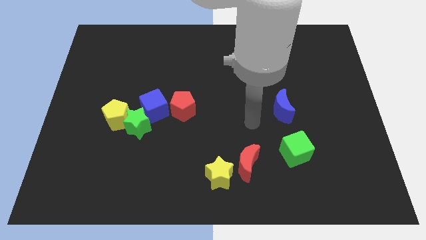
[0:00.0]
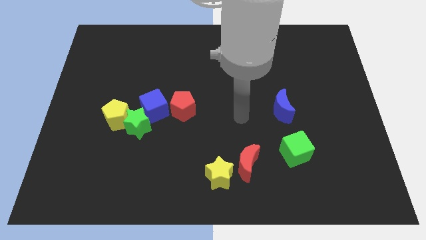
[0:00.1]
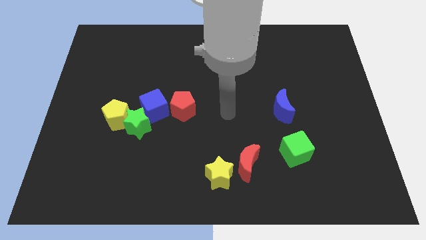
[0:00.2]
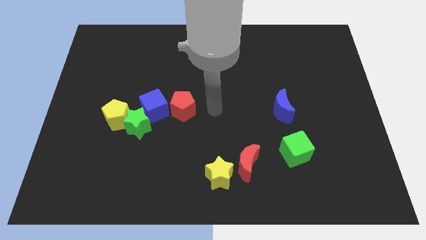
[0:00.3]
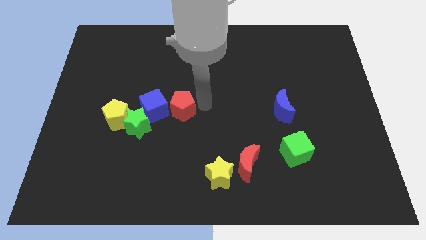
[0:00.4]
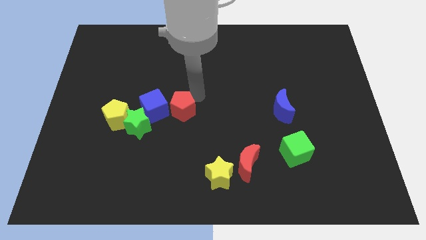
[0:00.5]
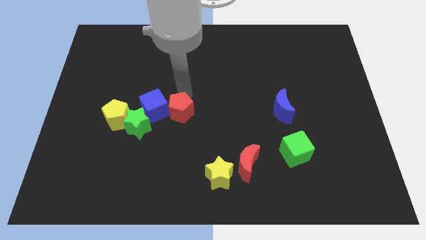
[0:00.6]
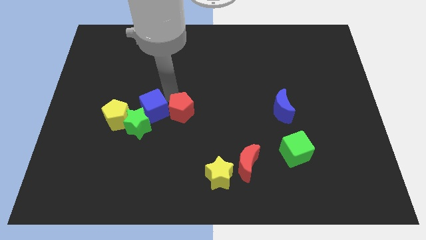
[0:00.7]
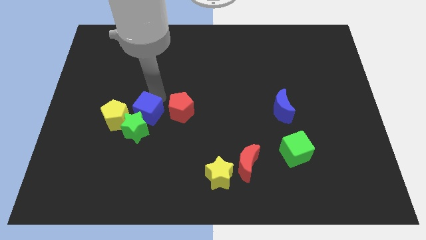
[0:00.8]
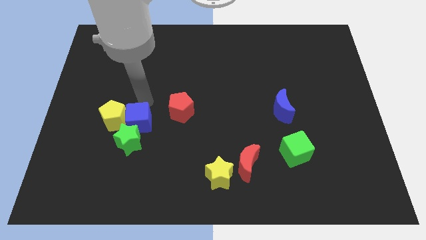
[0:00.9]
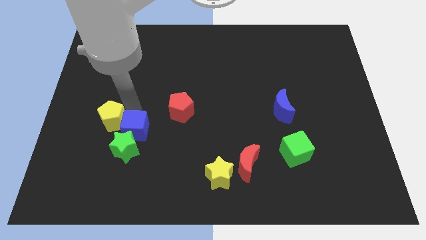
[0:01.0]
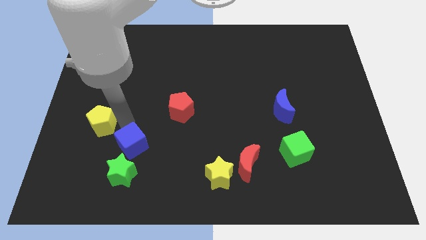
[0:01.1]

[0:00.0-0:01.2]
pull the green star apart from the yellow pentagon and blue cube

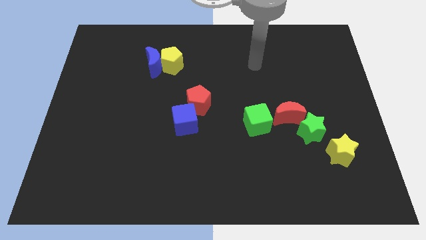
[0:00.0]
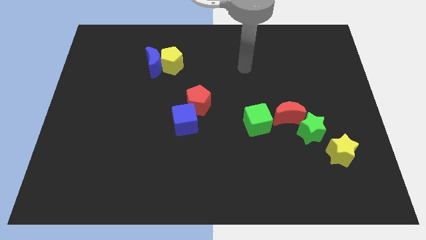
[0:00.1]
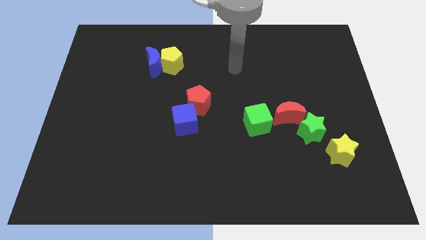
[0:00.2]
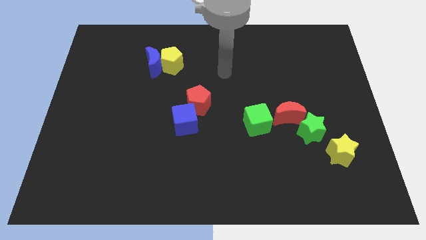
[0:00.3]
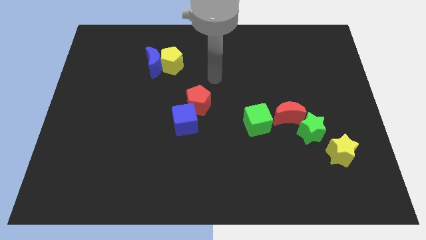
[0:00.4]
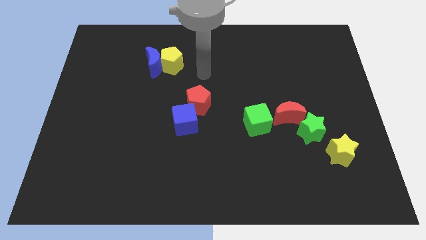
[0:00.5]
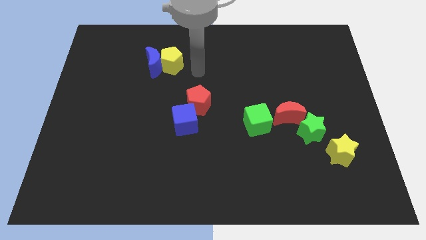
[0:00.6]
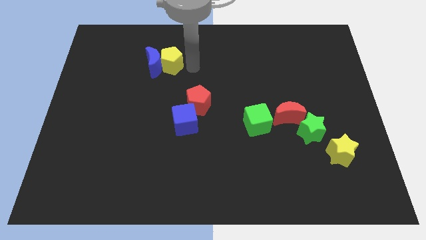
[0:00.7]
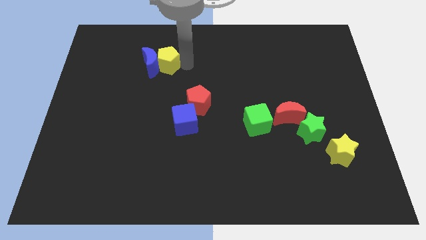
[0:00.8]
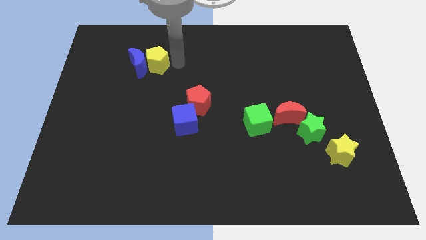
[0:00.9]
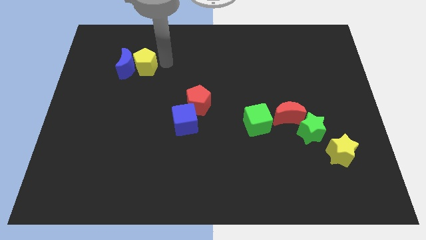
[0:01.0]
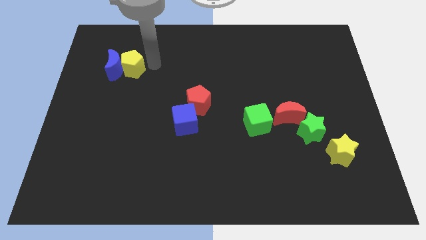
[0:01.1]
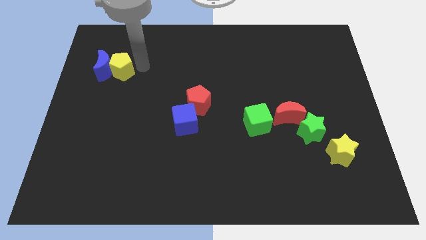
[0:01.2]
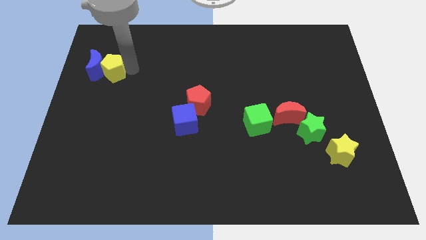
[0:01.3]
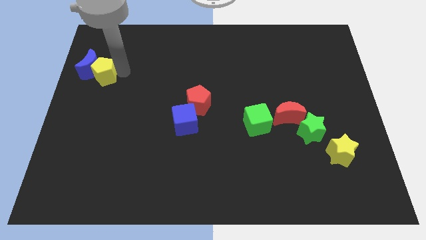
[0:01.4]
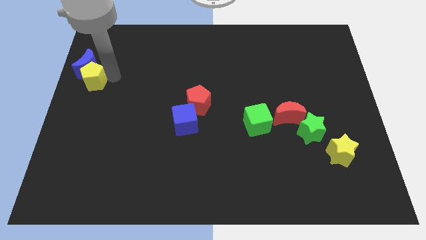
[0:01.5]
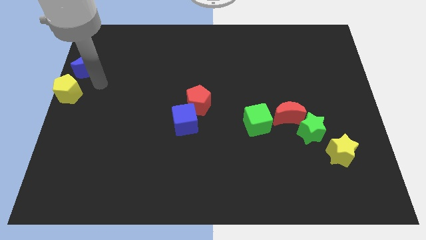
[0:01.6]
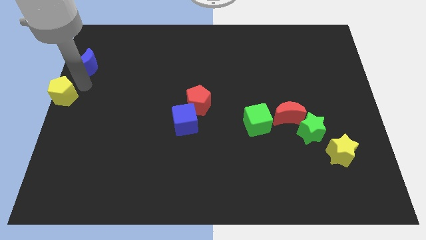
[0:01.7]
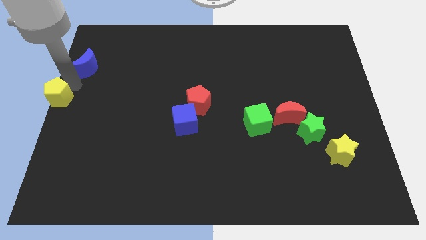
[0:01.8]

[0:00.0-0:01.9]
pull the blue moon apart from the yellow pentagon

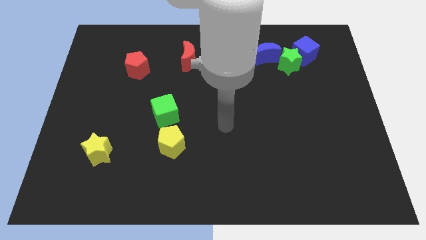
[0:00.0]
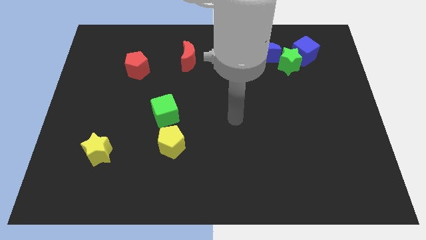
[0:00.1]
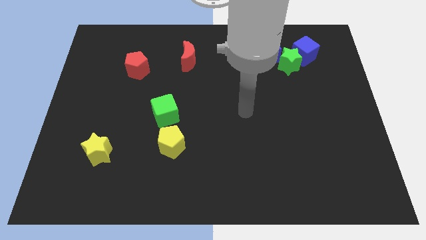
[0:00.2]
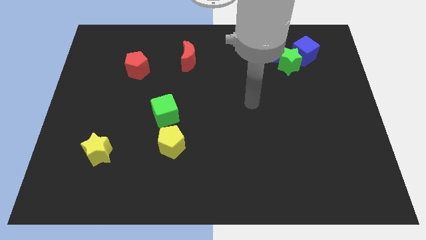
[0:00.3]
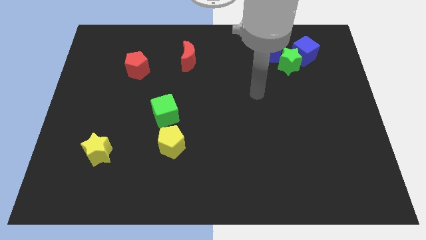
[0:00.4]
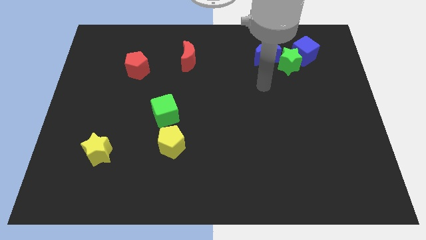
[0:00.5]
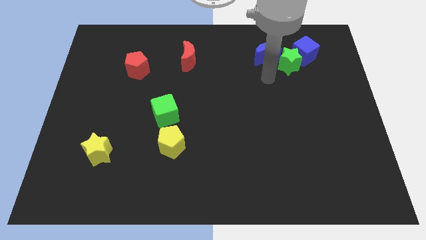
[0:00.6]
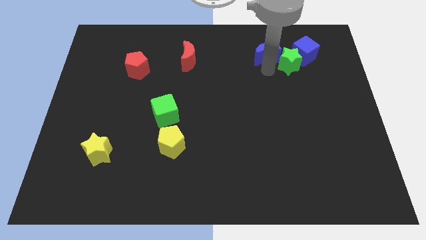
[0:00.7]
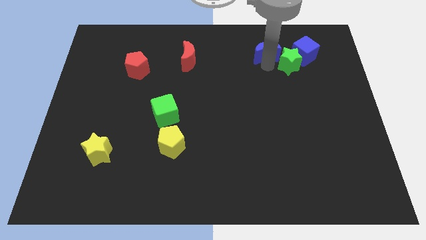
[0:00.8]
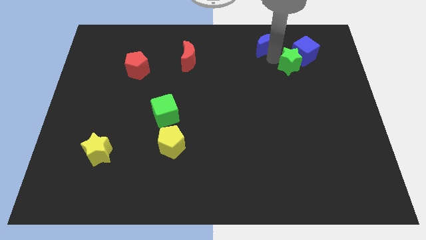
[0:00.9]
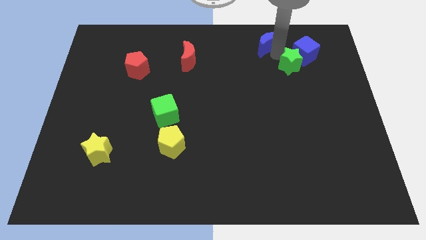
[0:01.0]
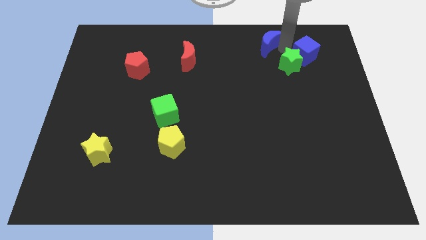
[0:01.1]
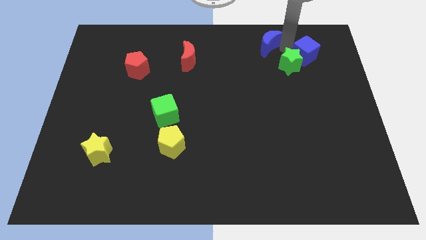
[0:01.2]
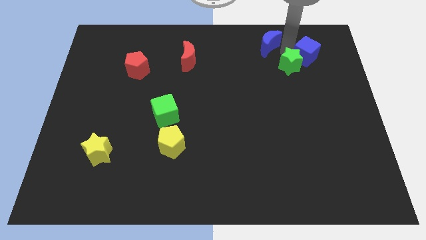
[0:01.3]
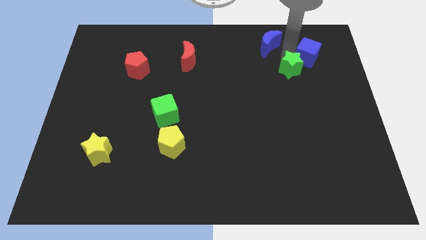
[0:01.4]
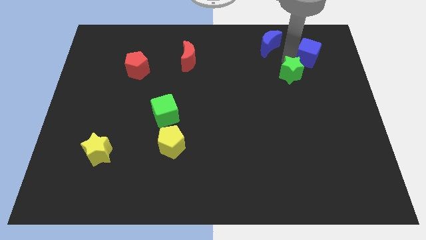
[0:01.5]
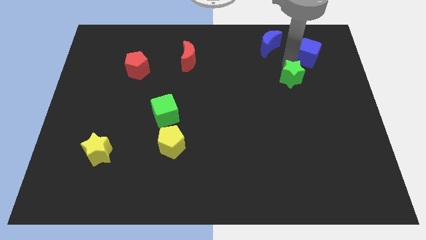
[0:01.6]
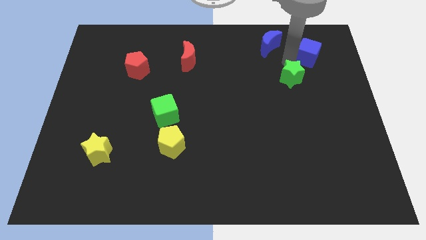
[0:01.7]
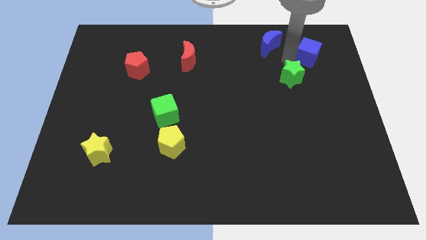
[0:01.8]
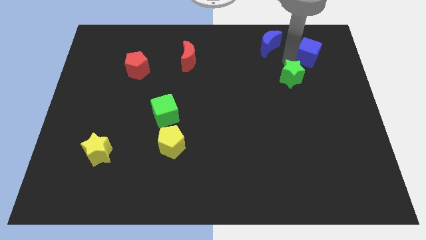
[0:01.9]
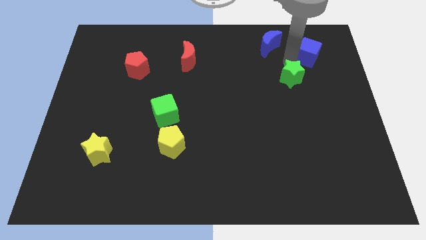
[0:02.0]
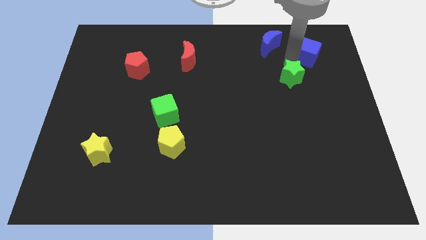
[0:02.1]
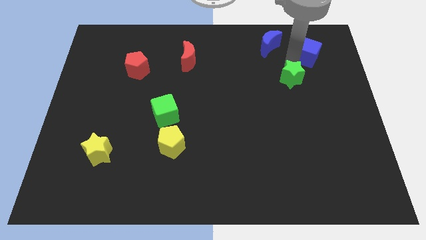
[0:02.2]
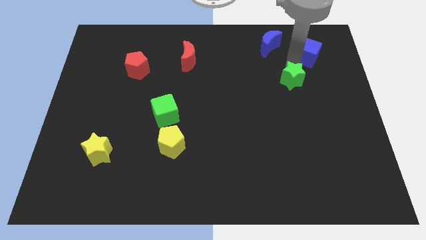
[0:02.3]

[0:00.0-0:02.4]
pull the green star apart from the blue cube and blue moon

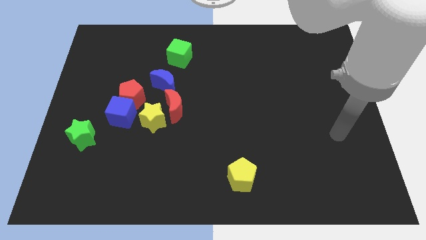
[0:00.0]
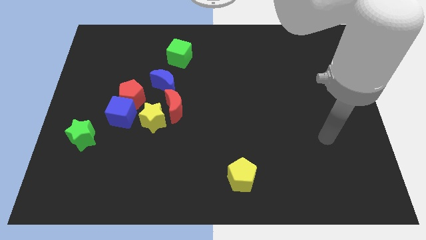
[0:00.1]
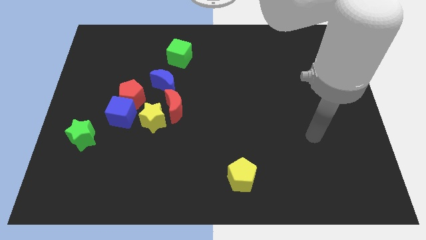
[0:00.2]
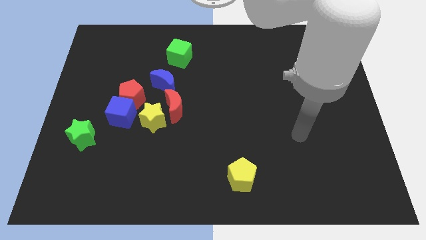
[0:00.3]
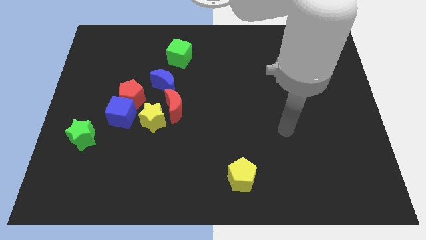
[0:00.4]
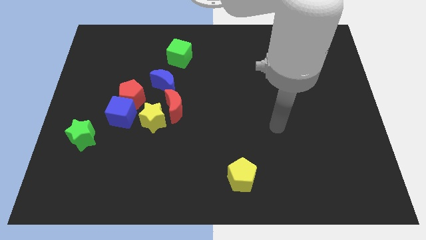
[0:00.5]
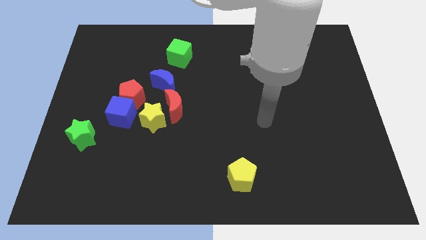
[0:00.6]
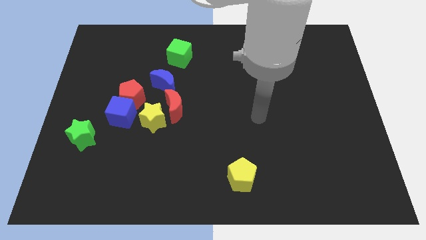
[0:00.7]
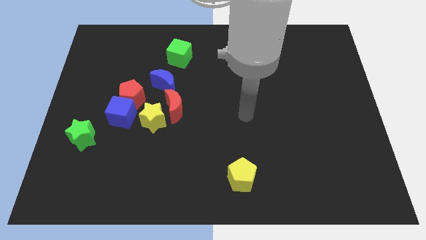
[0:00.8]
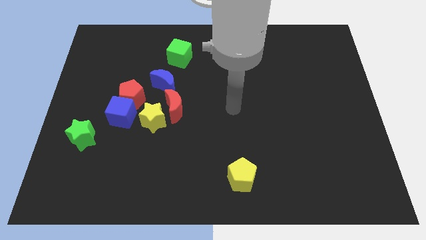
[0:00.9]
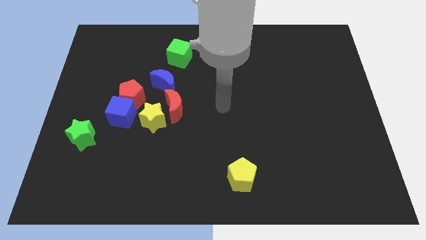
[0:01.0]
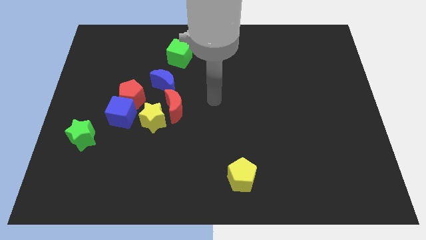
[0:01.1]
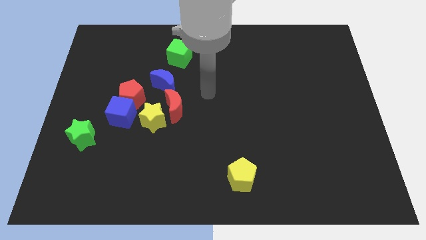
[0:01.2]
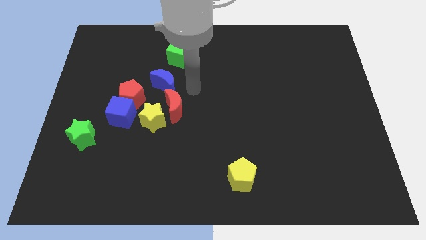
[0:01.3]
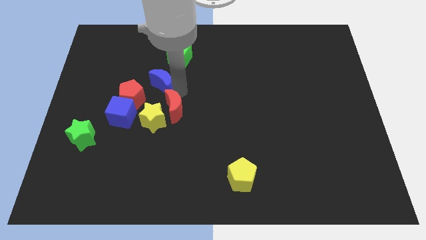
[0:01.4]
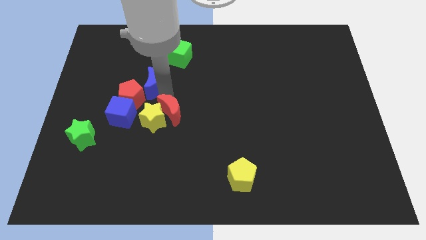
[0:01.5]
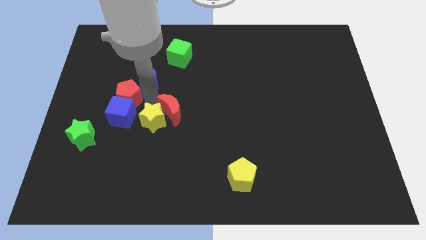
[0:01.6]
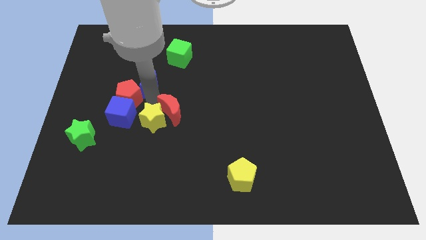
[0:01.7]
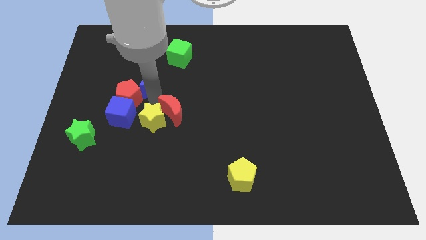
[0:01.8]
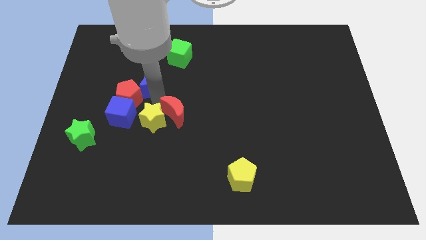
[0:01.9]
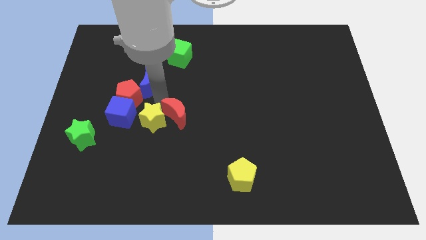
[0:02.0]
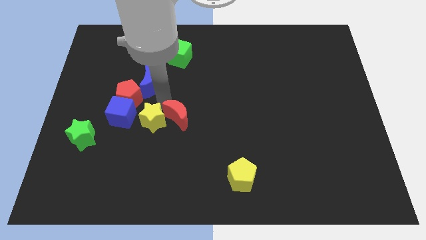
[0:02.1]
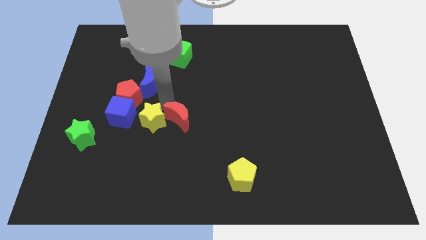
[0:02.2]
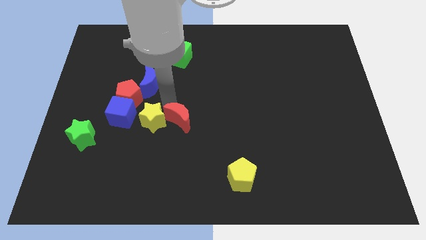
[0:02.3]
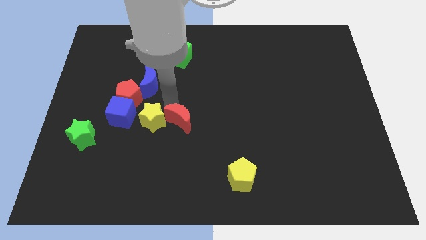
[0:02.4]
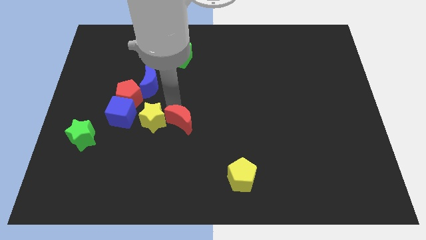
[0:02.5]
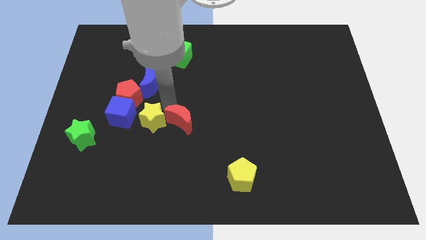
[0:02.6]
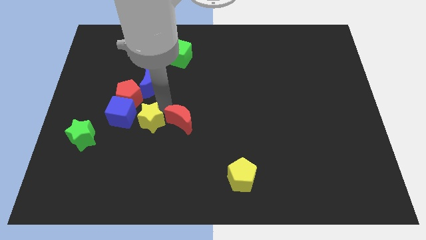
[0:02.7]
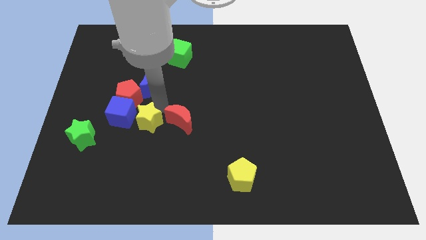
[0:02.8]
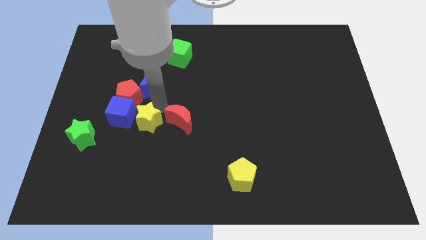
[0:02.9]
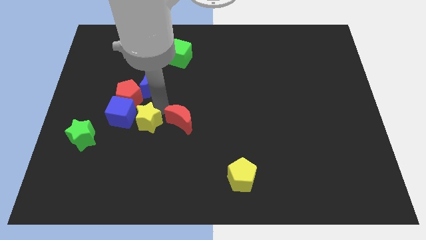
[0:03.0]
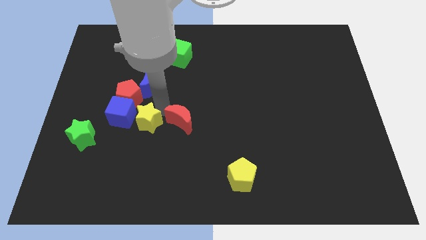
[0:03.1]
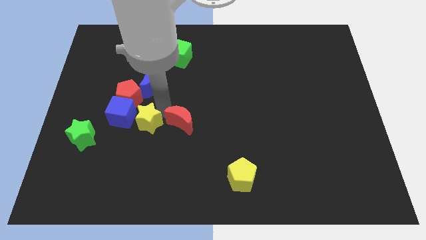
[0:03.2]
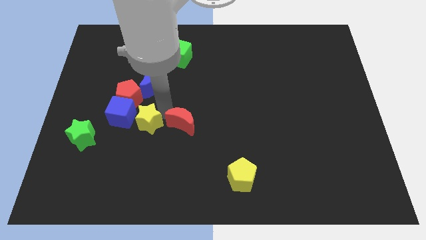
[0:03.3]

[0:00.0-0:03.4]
pull the red moon apart from the yellow star and blue moon

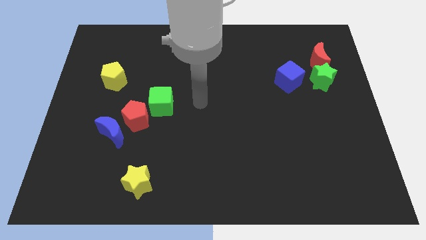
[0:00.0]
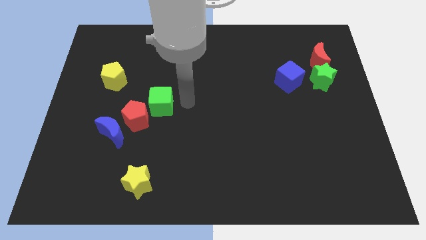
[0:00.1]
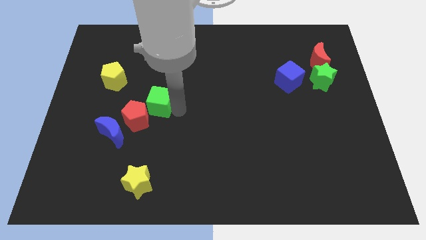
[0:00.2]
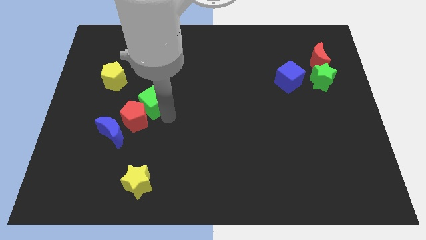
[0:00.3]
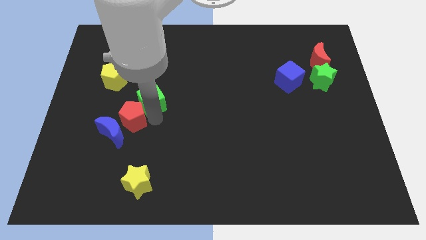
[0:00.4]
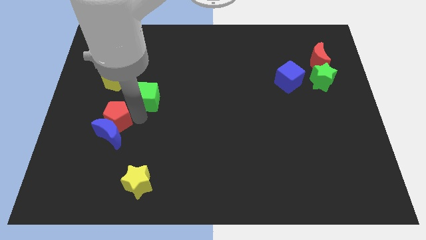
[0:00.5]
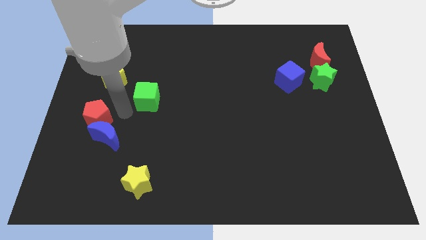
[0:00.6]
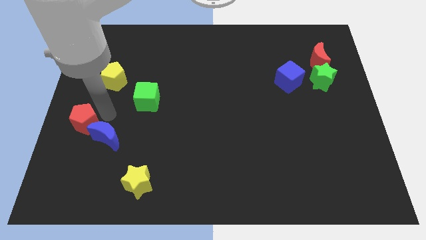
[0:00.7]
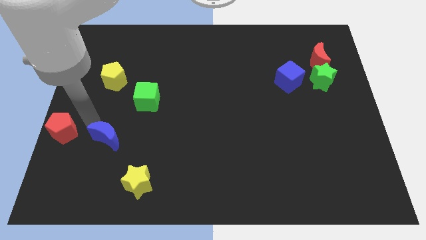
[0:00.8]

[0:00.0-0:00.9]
move the blue moon away from the red pentagon
